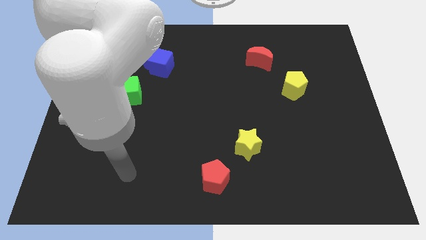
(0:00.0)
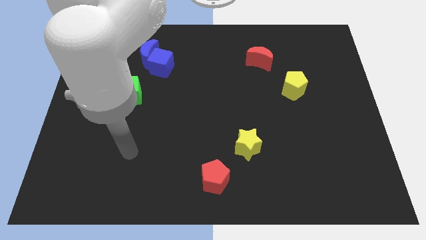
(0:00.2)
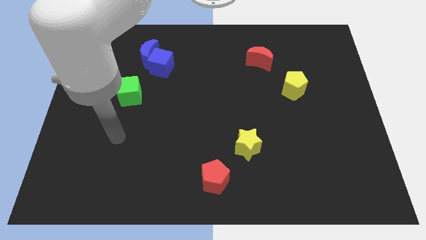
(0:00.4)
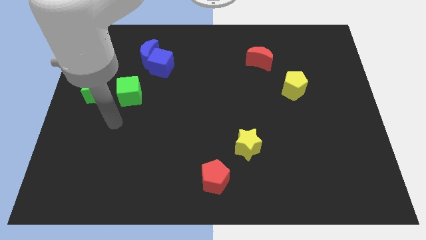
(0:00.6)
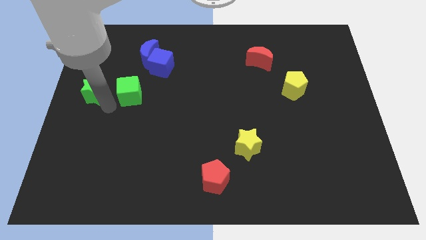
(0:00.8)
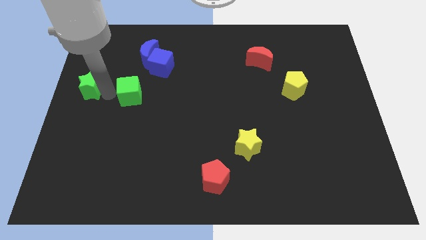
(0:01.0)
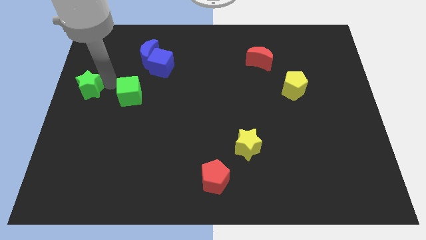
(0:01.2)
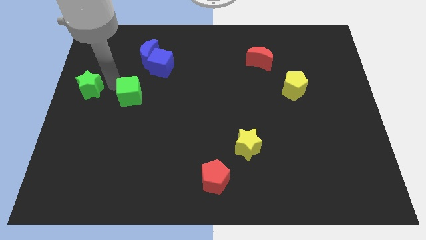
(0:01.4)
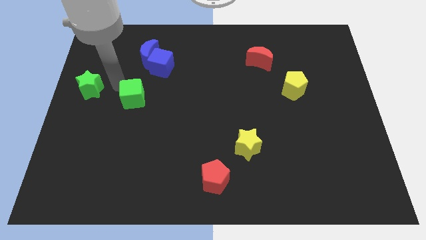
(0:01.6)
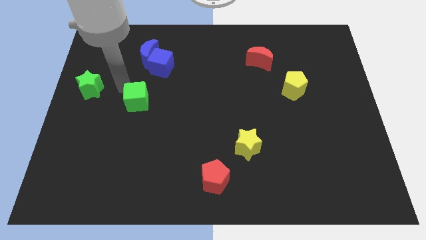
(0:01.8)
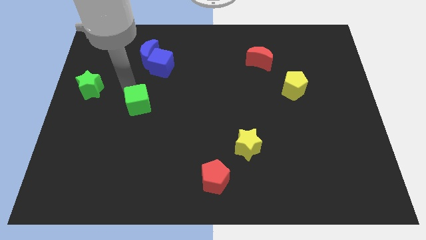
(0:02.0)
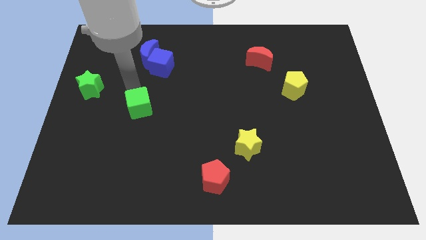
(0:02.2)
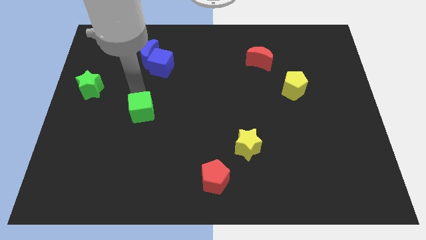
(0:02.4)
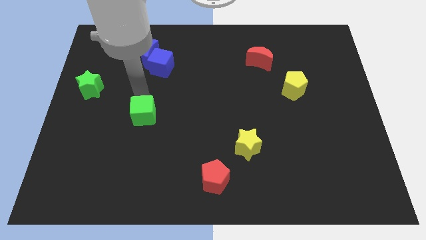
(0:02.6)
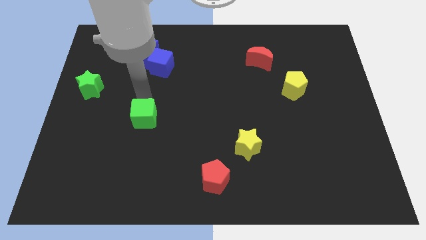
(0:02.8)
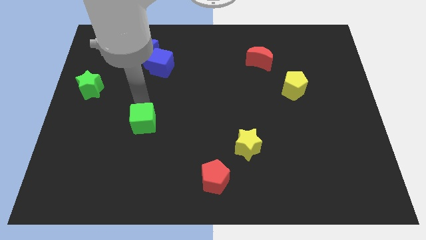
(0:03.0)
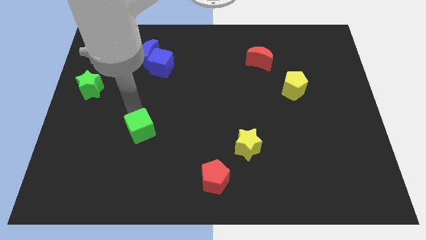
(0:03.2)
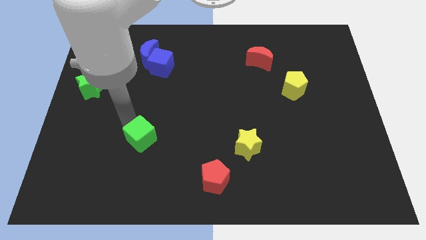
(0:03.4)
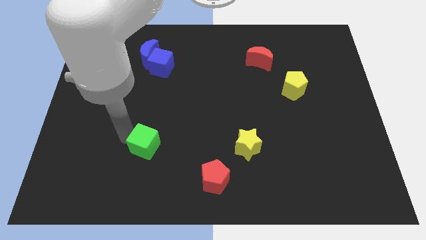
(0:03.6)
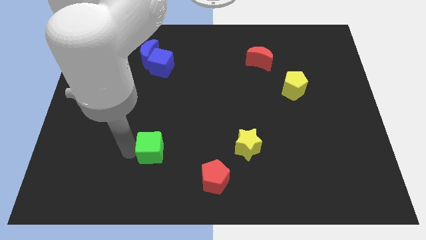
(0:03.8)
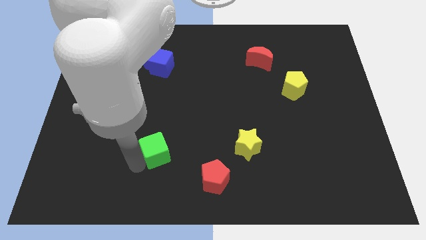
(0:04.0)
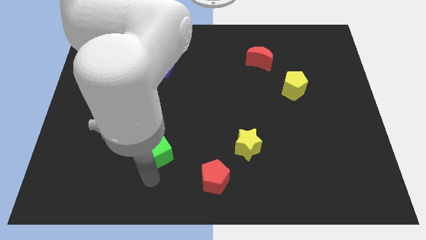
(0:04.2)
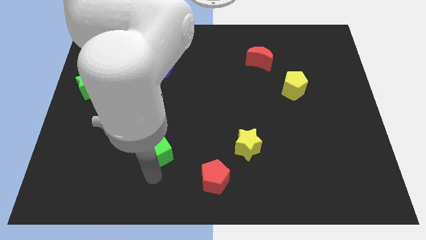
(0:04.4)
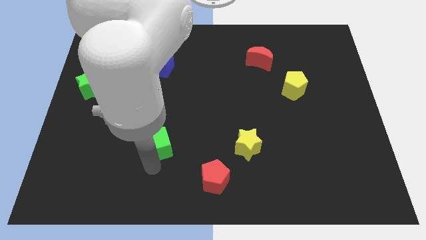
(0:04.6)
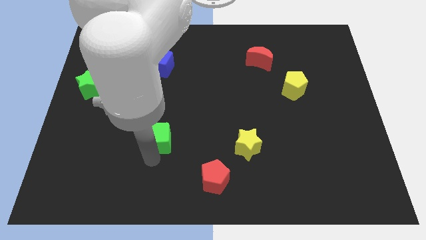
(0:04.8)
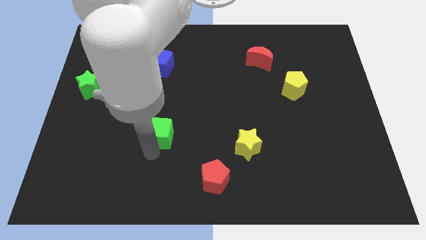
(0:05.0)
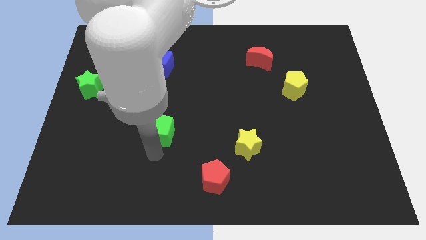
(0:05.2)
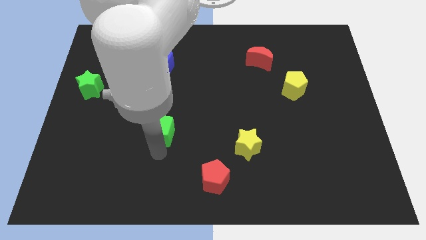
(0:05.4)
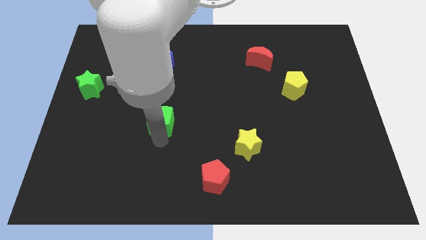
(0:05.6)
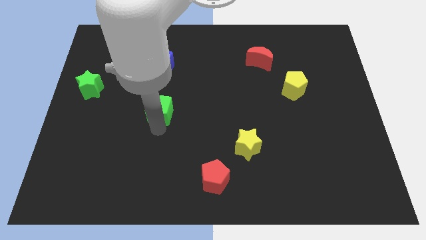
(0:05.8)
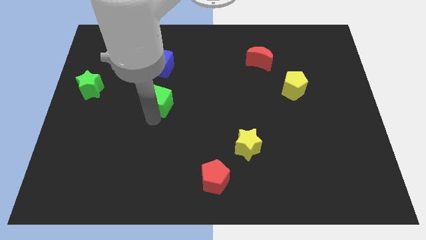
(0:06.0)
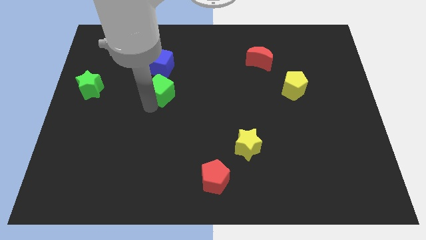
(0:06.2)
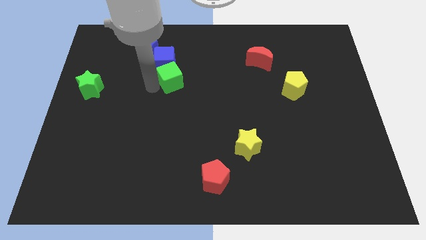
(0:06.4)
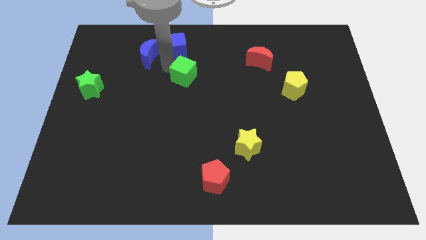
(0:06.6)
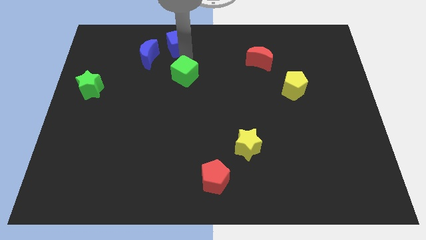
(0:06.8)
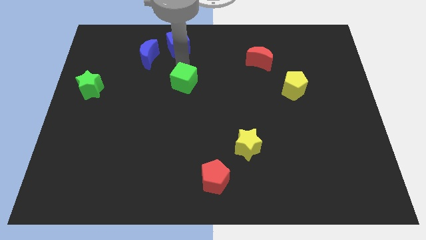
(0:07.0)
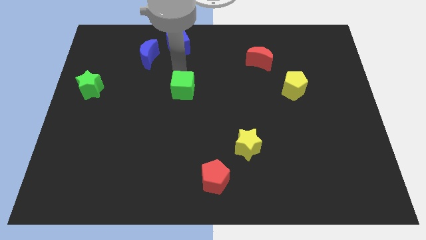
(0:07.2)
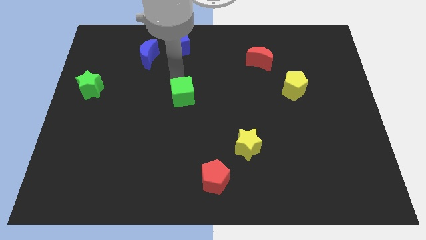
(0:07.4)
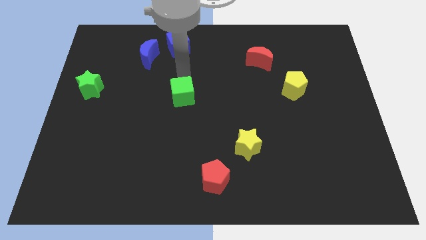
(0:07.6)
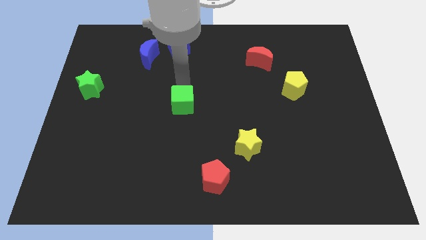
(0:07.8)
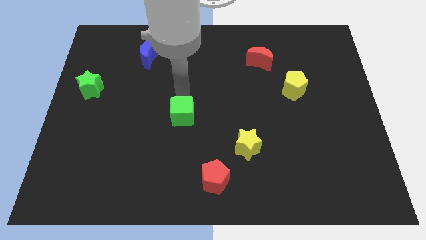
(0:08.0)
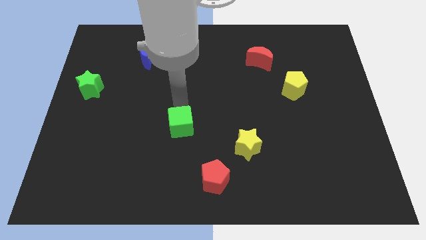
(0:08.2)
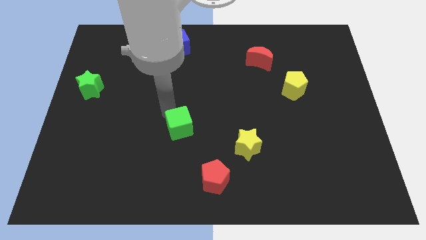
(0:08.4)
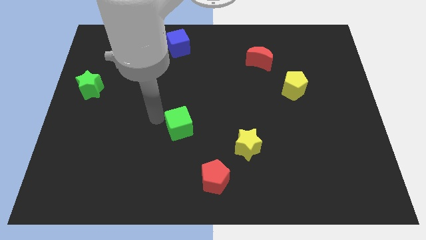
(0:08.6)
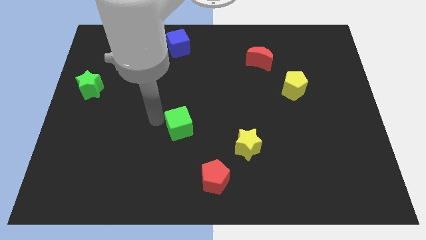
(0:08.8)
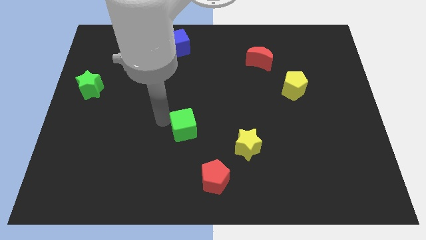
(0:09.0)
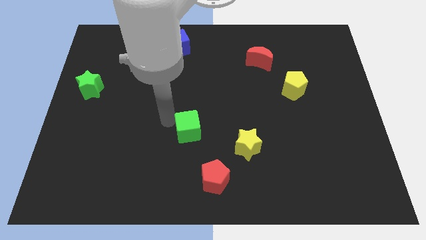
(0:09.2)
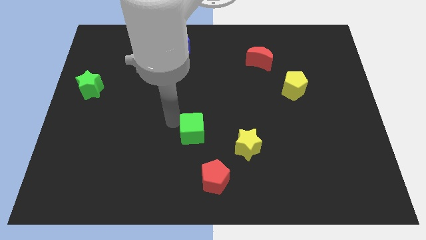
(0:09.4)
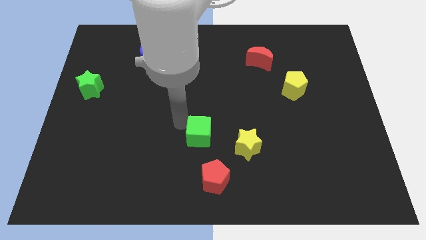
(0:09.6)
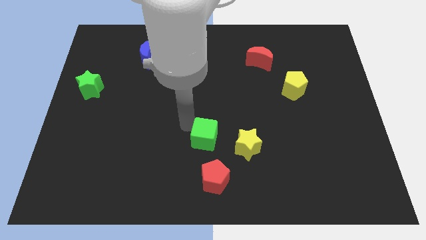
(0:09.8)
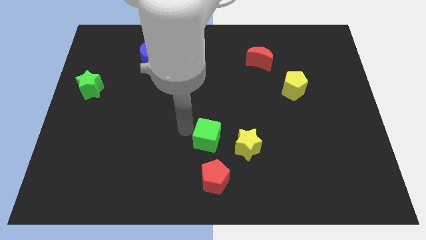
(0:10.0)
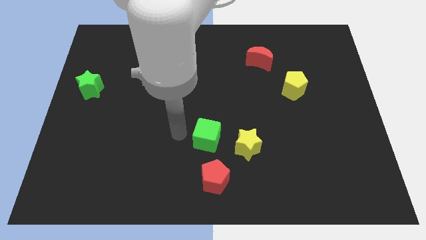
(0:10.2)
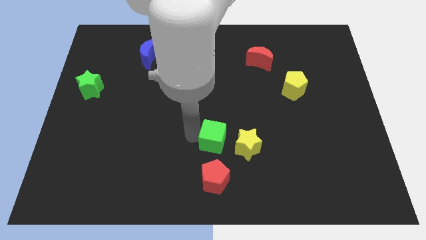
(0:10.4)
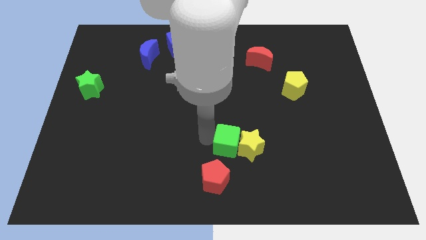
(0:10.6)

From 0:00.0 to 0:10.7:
move the green cube to the yellow star

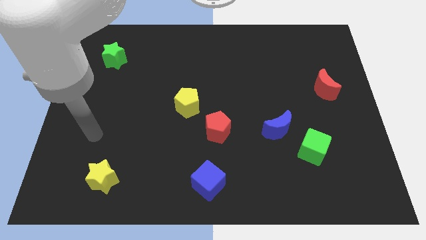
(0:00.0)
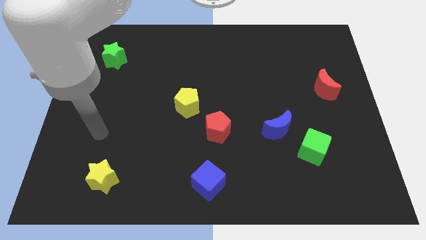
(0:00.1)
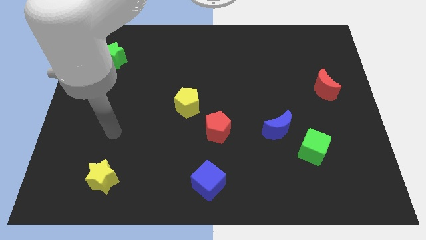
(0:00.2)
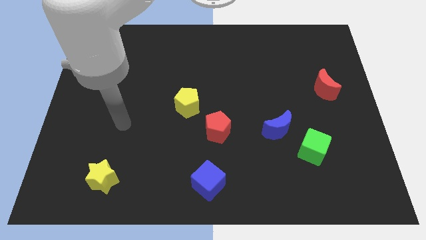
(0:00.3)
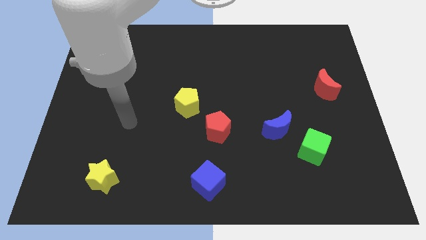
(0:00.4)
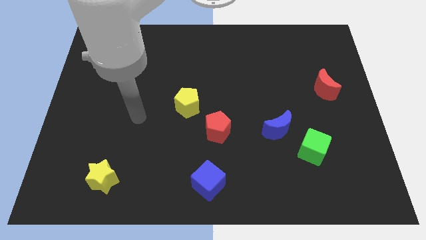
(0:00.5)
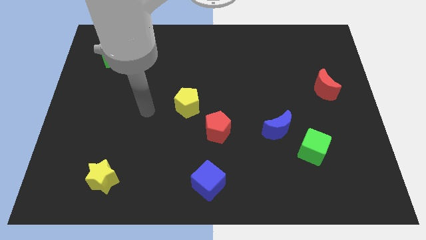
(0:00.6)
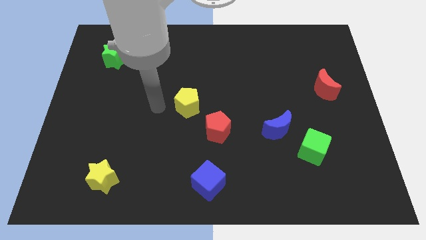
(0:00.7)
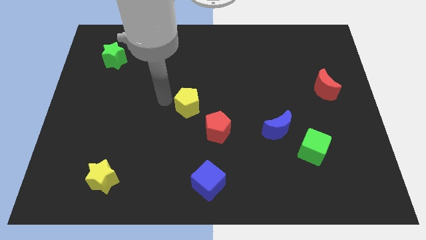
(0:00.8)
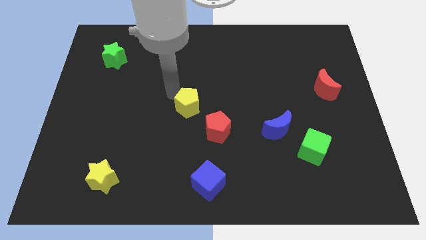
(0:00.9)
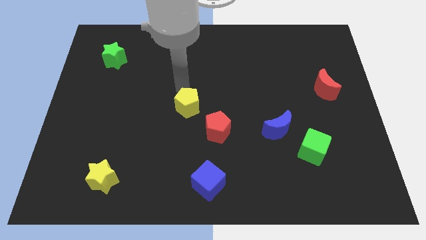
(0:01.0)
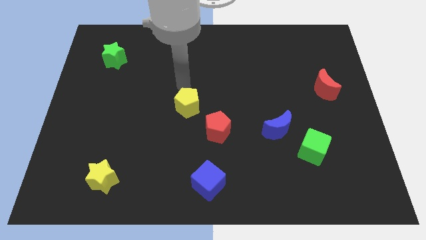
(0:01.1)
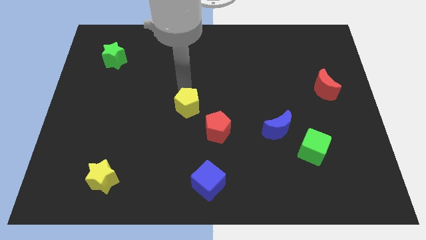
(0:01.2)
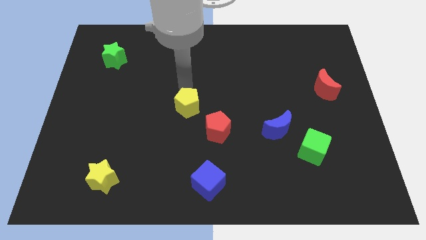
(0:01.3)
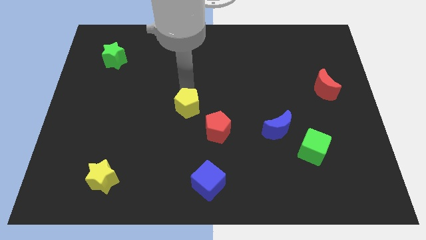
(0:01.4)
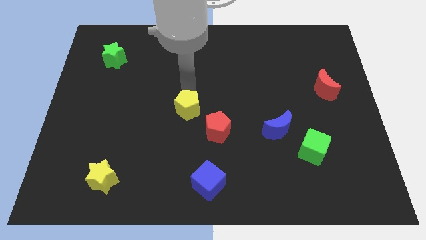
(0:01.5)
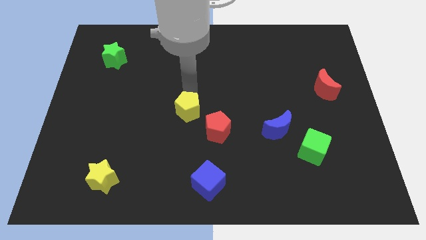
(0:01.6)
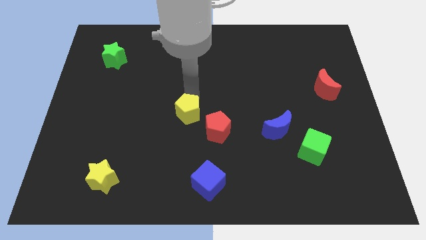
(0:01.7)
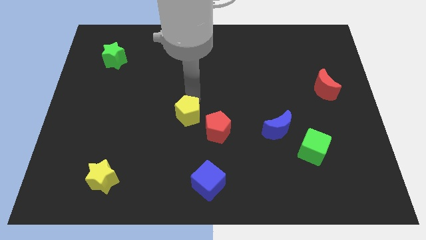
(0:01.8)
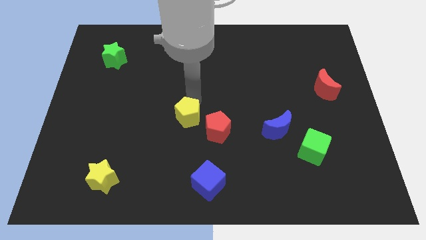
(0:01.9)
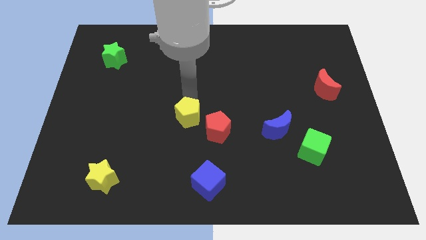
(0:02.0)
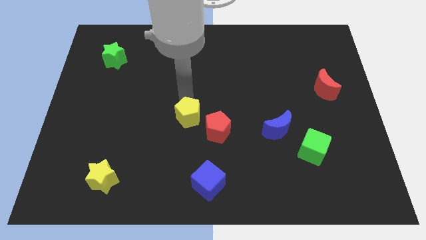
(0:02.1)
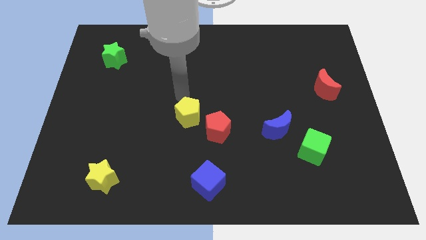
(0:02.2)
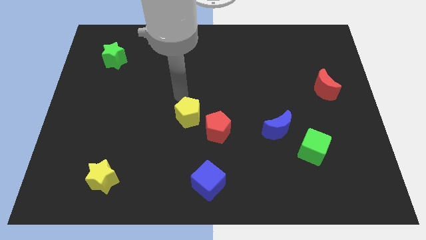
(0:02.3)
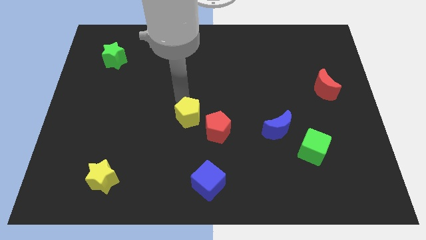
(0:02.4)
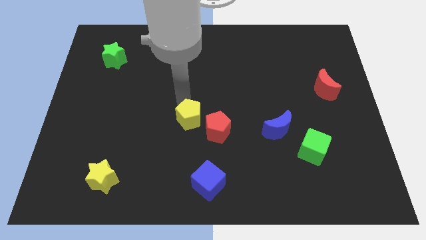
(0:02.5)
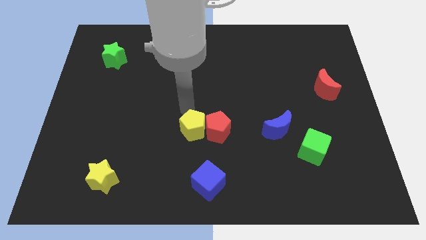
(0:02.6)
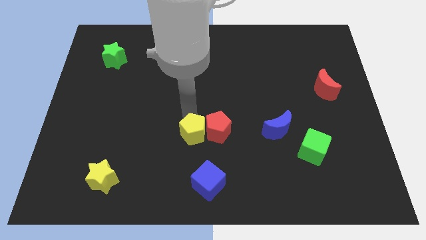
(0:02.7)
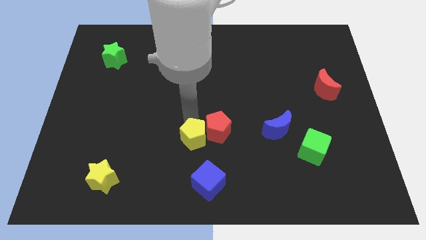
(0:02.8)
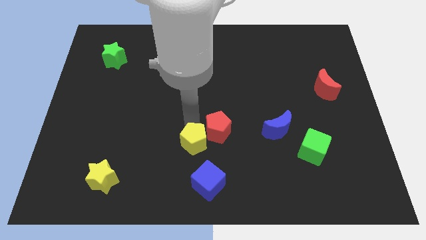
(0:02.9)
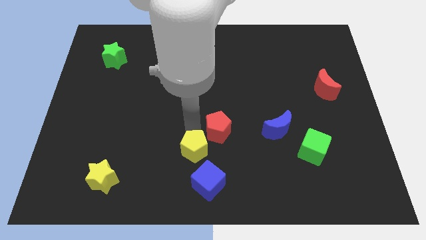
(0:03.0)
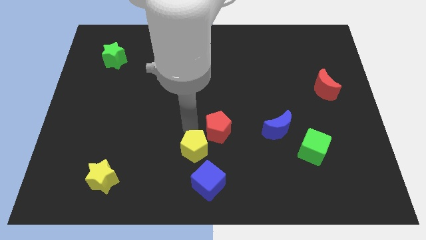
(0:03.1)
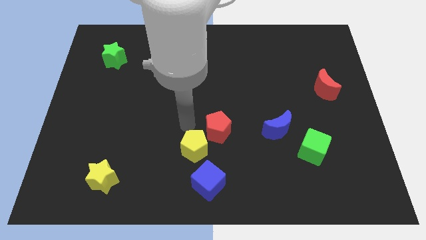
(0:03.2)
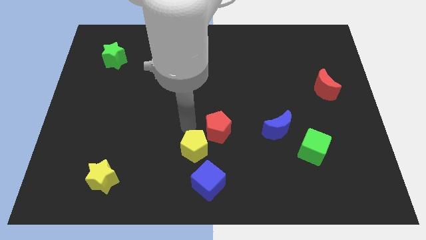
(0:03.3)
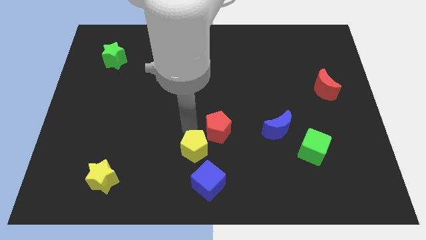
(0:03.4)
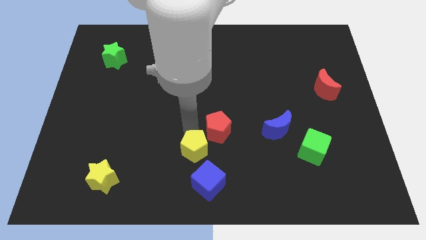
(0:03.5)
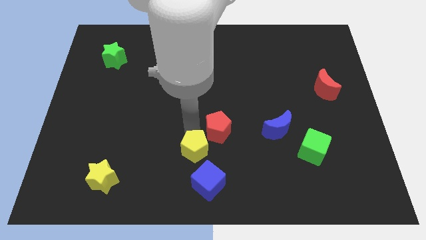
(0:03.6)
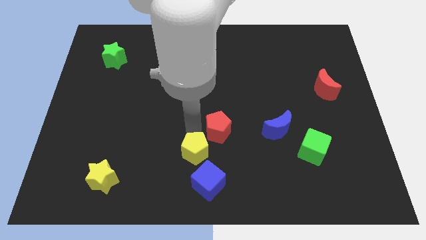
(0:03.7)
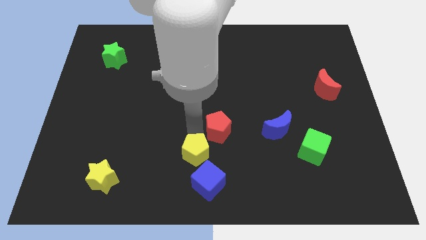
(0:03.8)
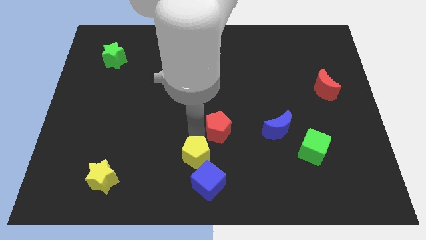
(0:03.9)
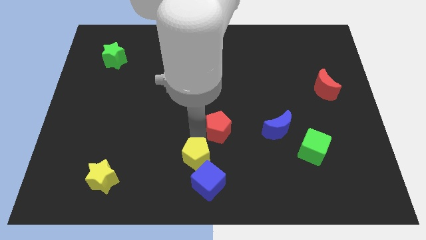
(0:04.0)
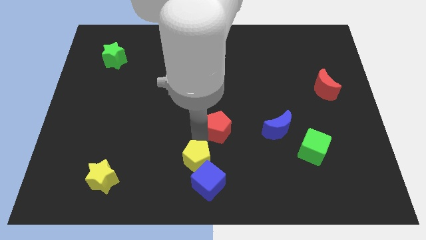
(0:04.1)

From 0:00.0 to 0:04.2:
put the yellow pentagon to the blue cube
